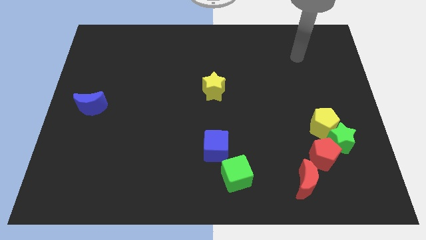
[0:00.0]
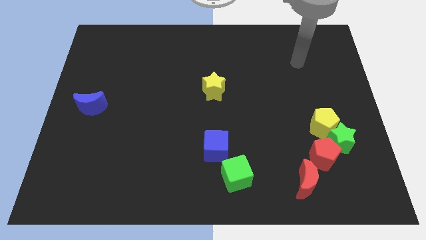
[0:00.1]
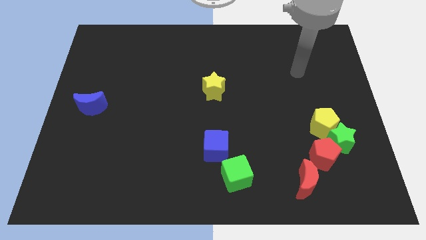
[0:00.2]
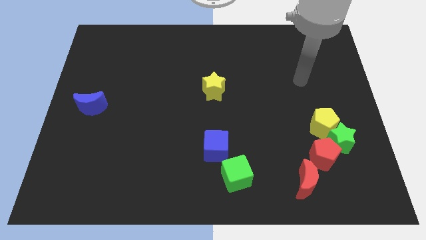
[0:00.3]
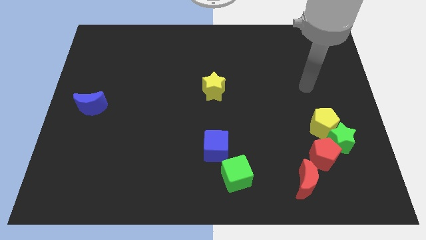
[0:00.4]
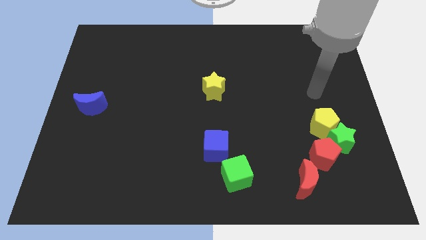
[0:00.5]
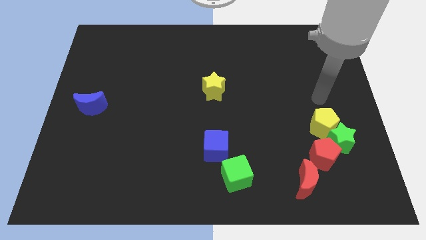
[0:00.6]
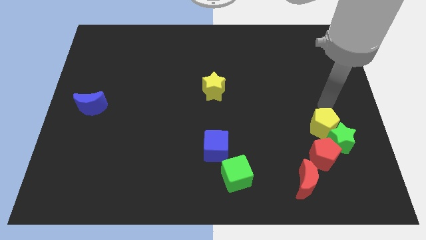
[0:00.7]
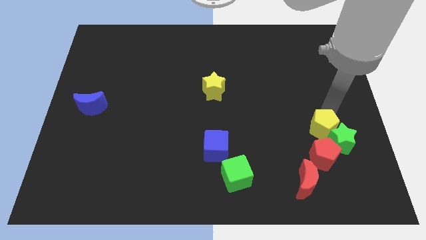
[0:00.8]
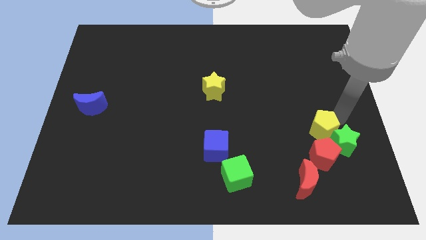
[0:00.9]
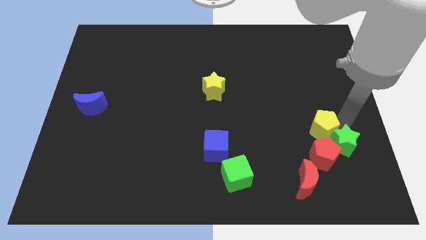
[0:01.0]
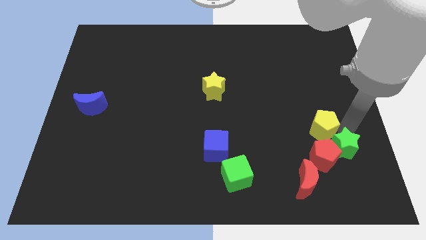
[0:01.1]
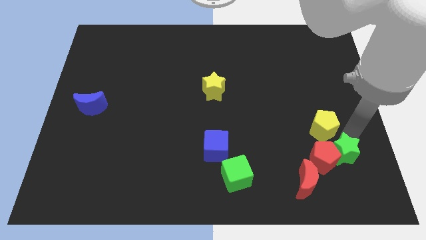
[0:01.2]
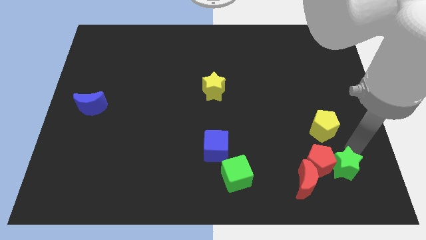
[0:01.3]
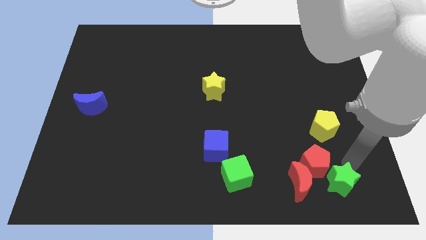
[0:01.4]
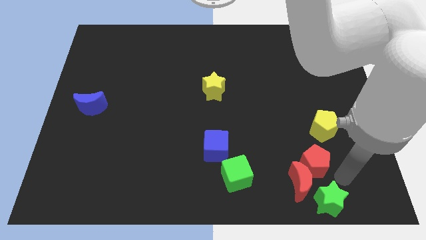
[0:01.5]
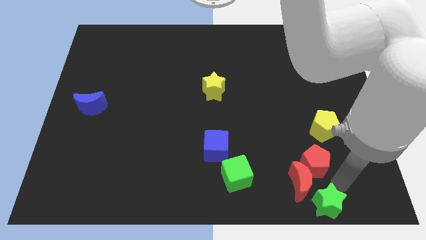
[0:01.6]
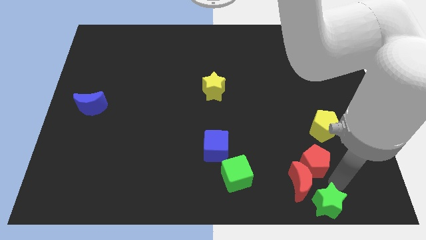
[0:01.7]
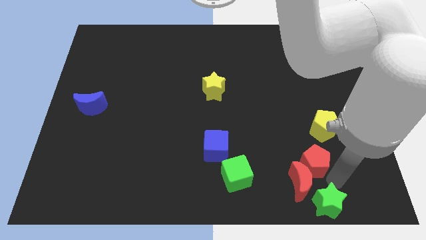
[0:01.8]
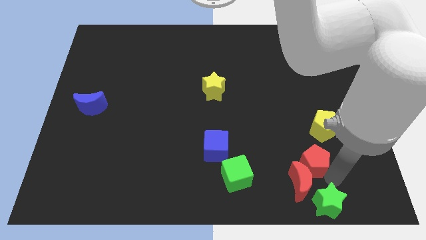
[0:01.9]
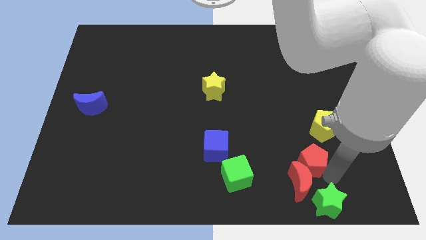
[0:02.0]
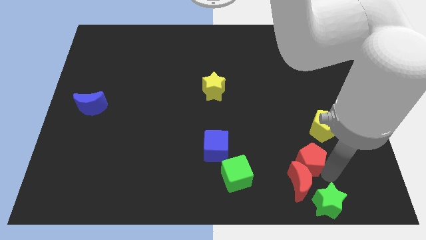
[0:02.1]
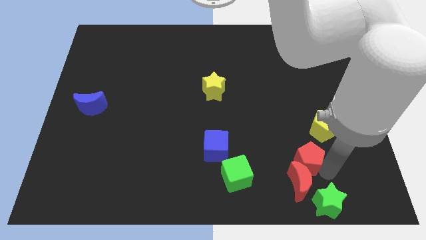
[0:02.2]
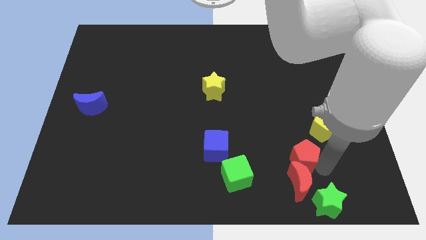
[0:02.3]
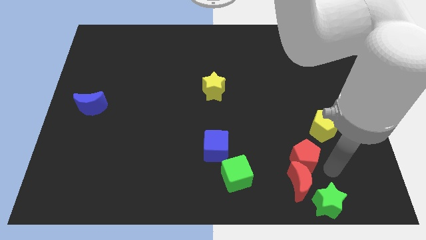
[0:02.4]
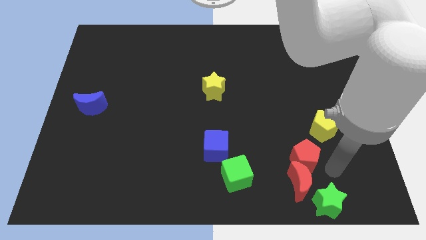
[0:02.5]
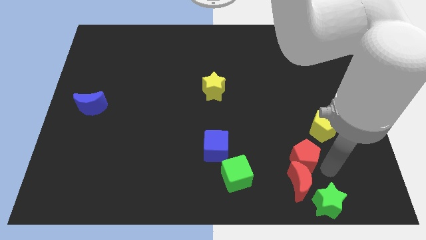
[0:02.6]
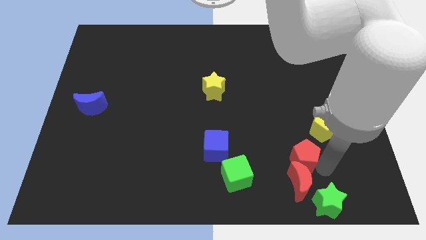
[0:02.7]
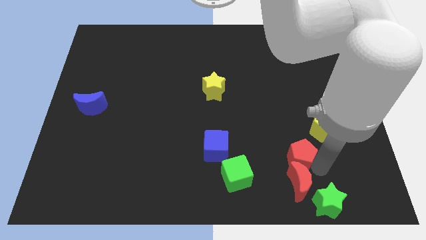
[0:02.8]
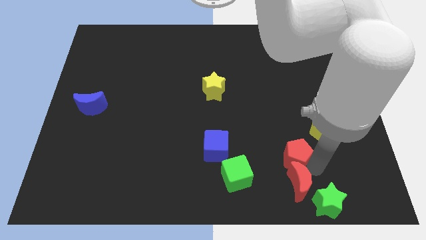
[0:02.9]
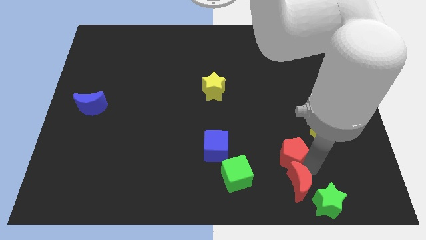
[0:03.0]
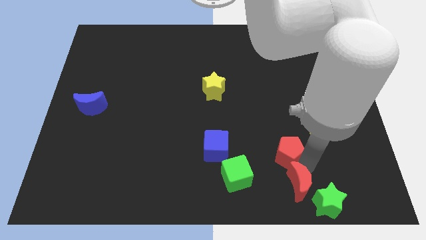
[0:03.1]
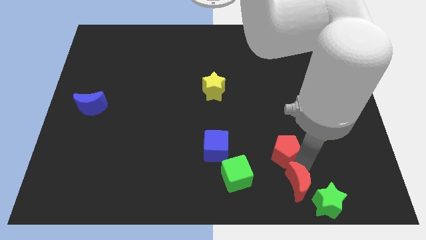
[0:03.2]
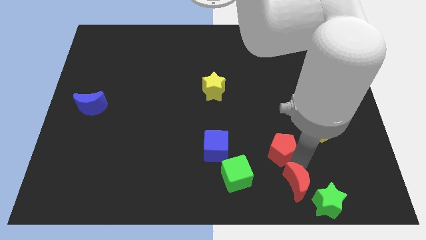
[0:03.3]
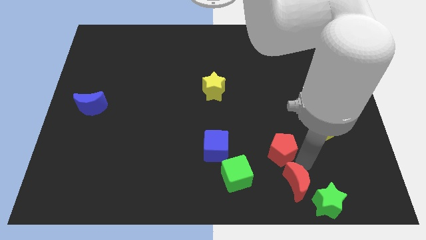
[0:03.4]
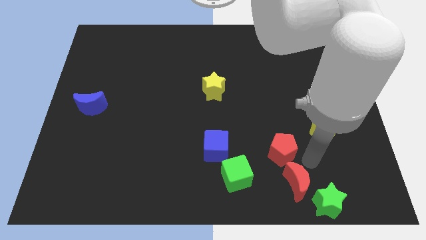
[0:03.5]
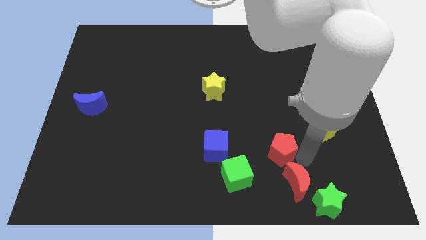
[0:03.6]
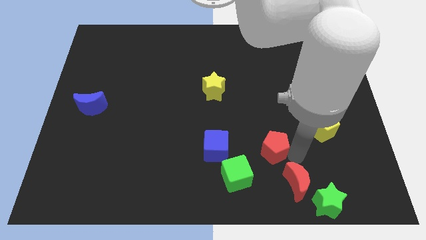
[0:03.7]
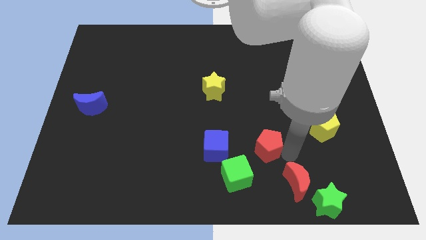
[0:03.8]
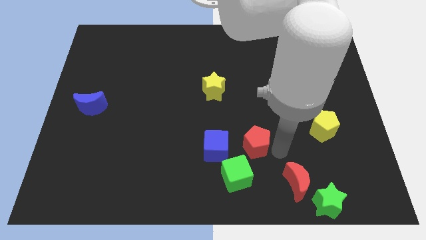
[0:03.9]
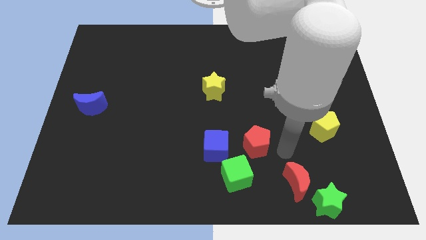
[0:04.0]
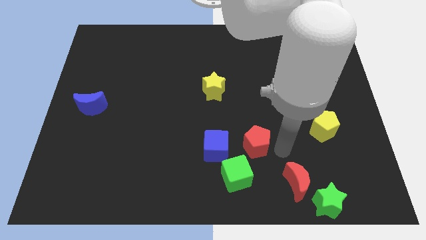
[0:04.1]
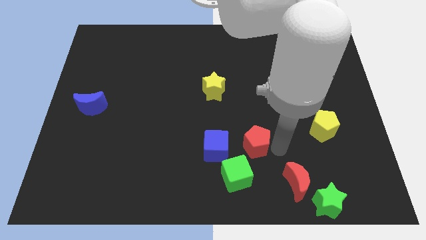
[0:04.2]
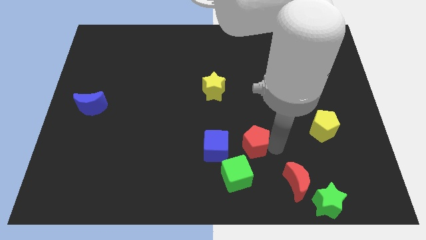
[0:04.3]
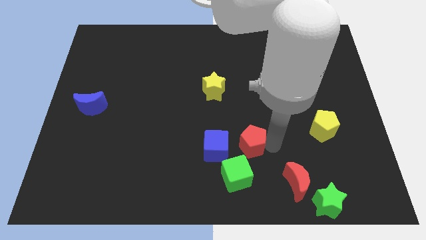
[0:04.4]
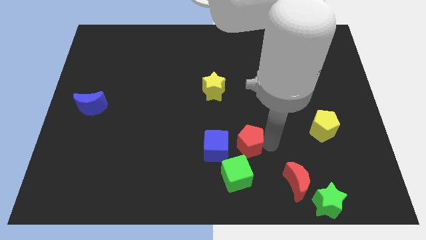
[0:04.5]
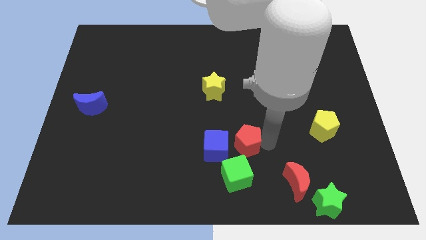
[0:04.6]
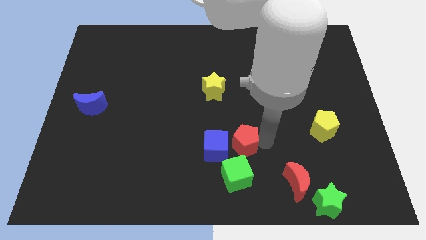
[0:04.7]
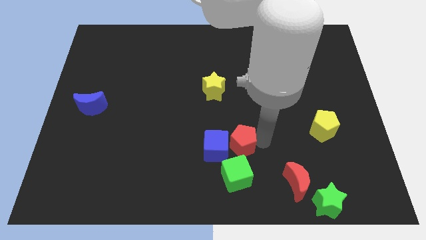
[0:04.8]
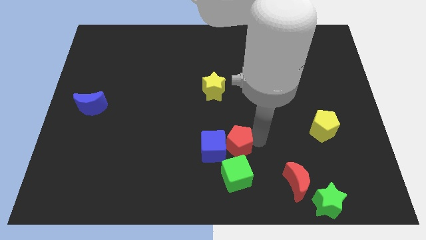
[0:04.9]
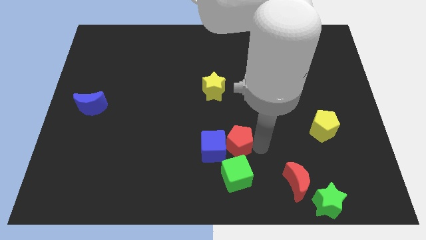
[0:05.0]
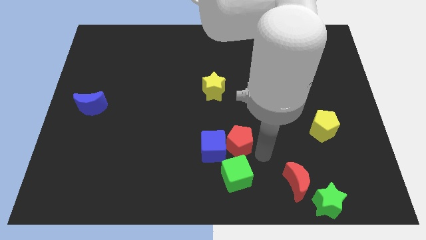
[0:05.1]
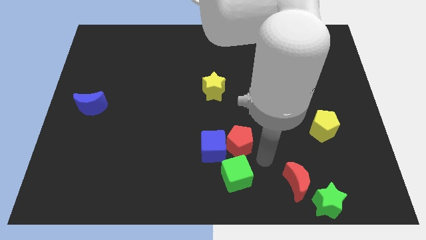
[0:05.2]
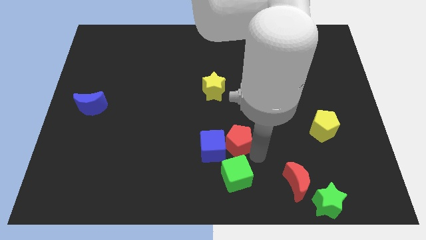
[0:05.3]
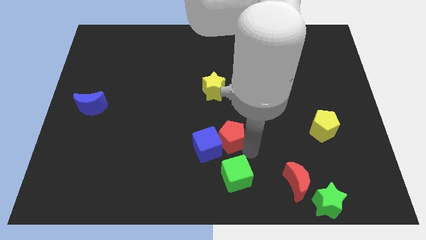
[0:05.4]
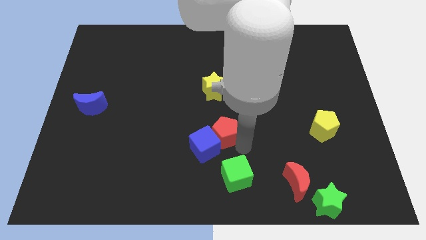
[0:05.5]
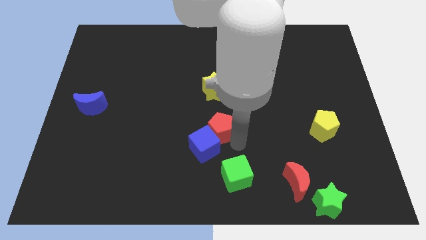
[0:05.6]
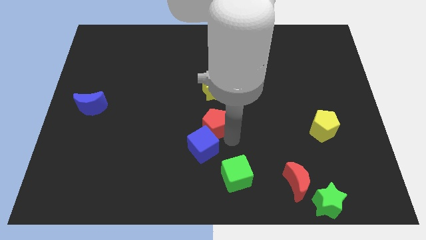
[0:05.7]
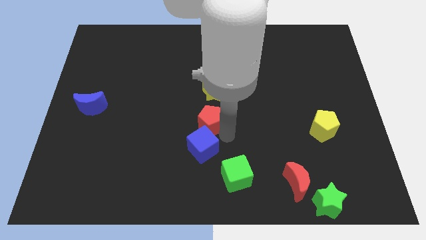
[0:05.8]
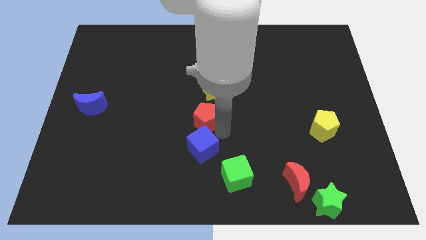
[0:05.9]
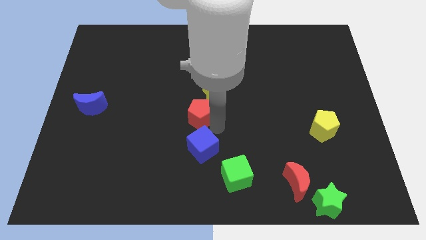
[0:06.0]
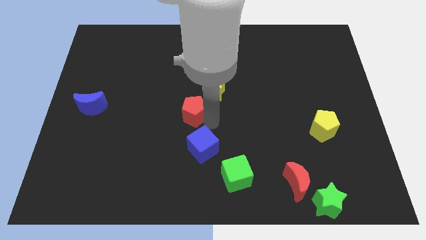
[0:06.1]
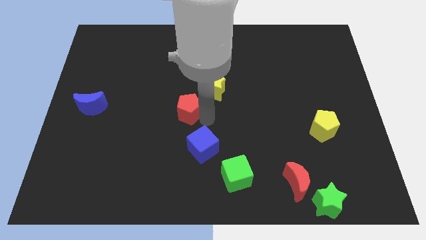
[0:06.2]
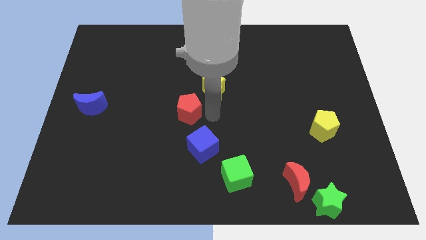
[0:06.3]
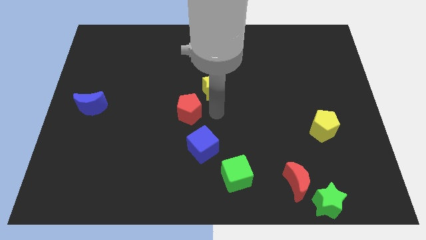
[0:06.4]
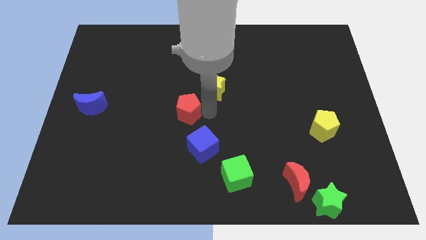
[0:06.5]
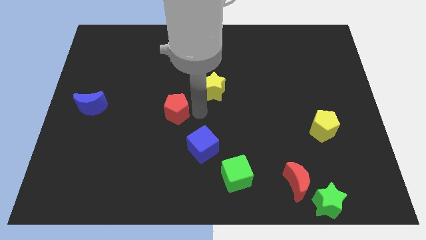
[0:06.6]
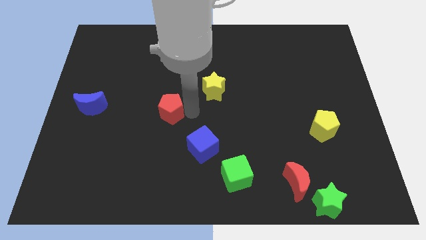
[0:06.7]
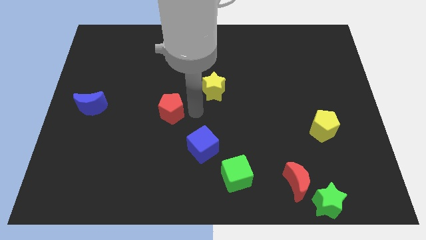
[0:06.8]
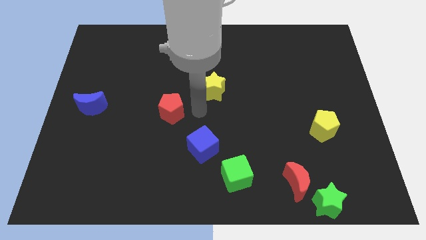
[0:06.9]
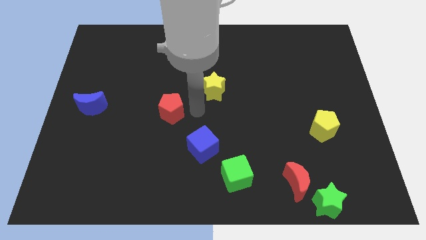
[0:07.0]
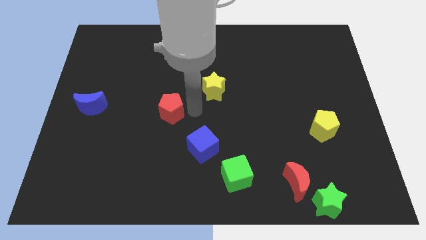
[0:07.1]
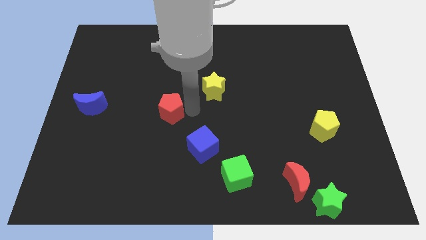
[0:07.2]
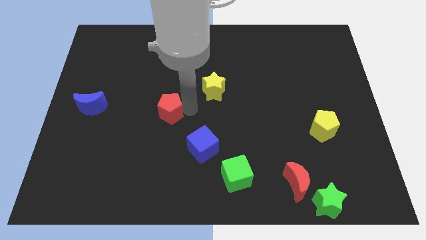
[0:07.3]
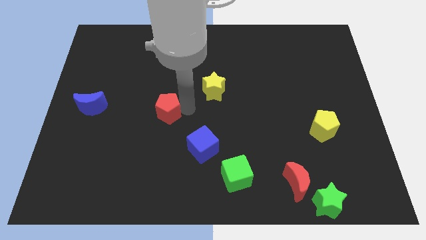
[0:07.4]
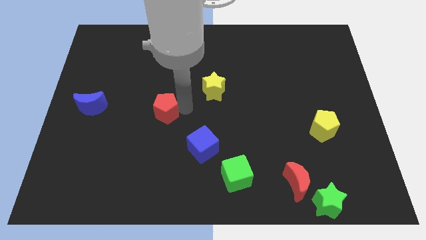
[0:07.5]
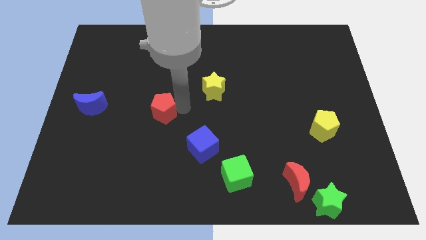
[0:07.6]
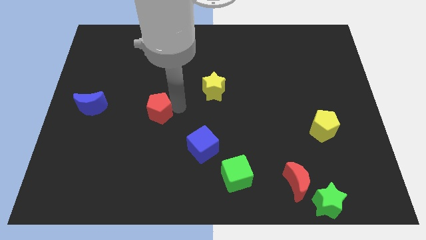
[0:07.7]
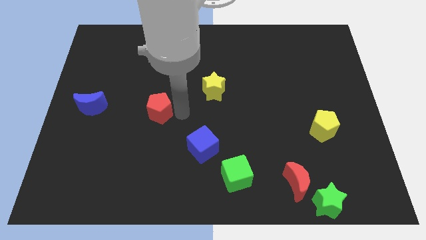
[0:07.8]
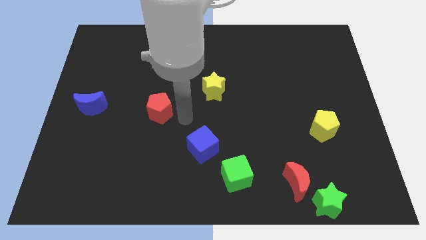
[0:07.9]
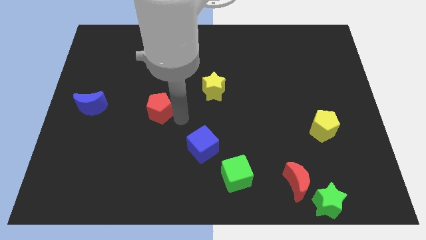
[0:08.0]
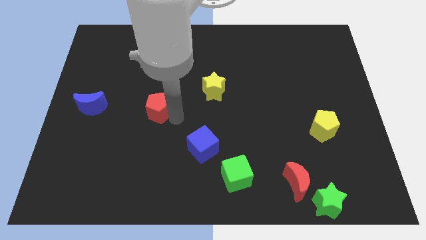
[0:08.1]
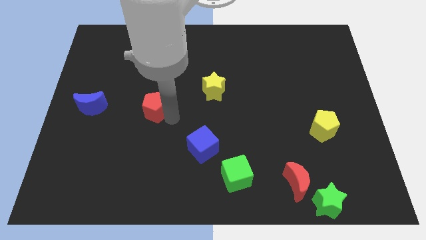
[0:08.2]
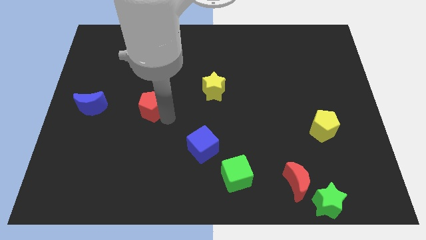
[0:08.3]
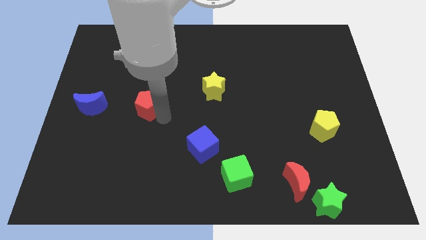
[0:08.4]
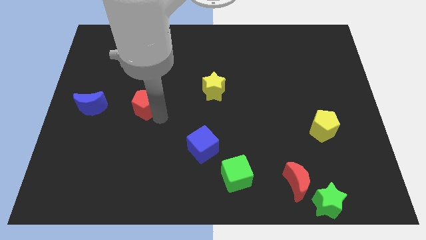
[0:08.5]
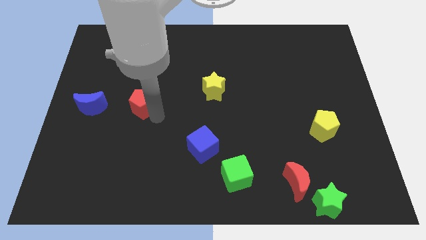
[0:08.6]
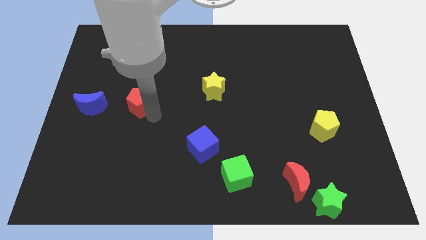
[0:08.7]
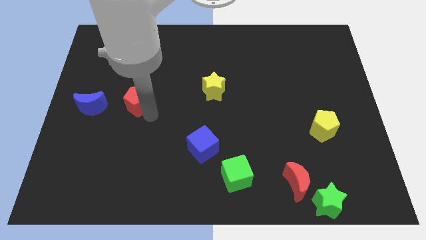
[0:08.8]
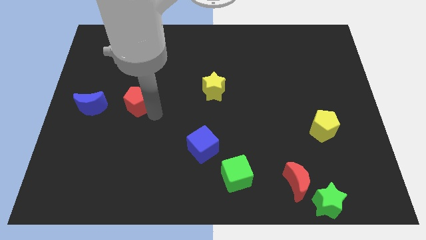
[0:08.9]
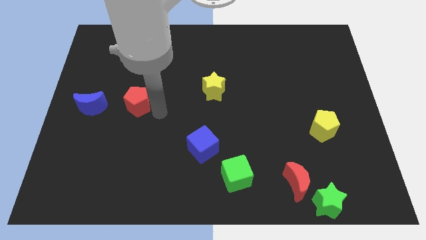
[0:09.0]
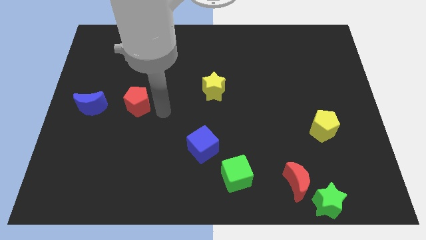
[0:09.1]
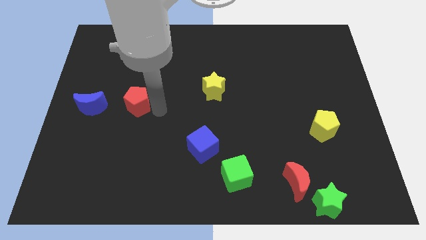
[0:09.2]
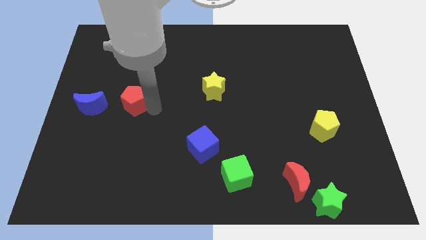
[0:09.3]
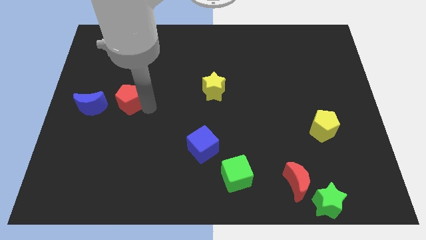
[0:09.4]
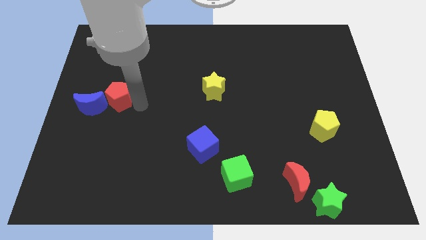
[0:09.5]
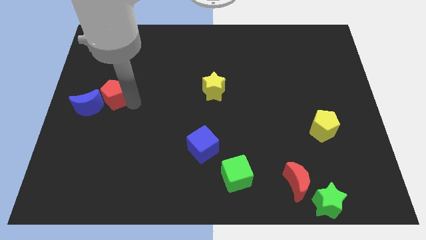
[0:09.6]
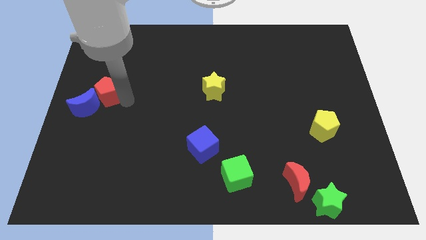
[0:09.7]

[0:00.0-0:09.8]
put the red pentagon to the center left
